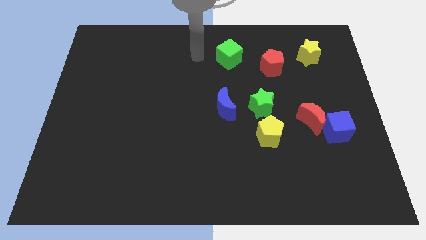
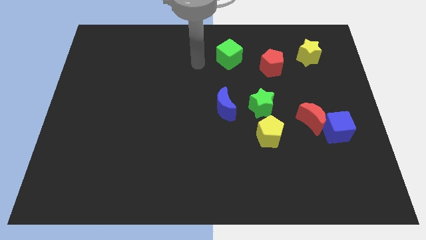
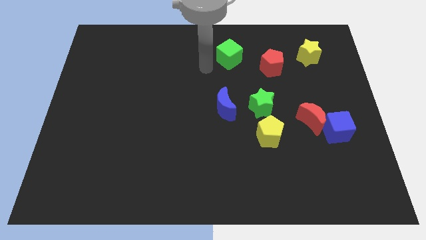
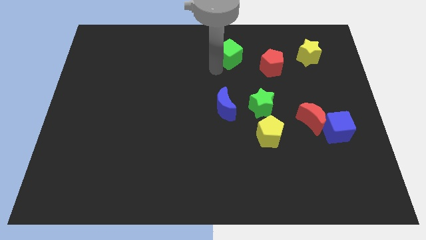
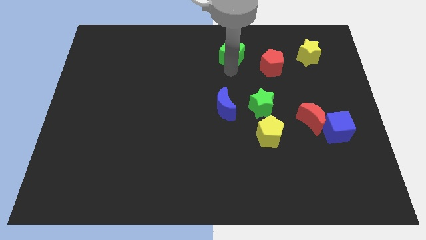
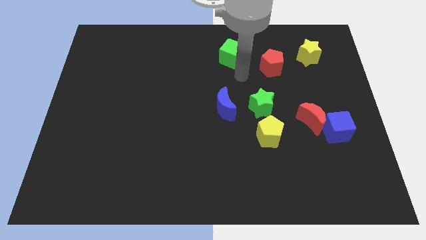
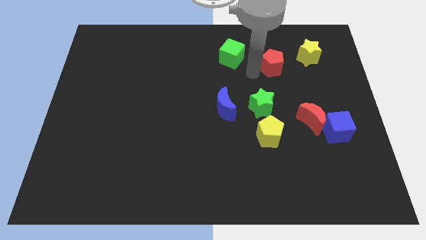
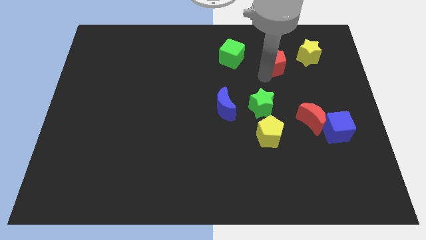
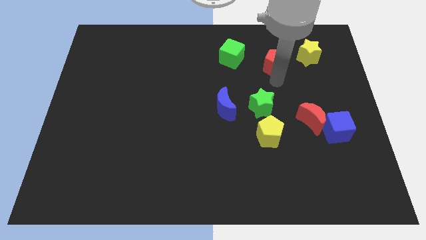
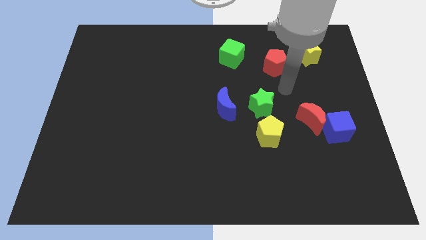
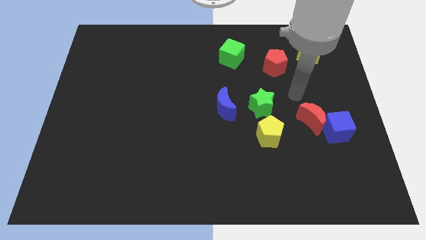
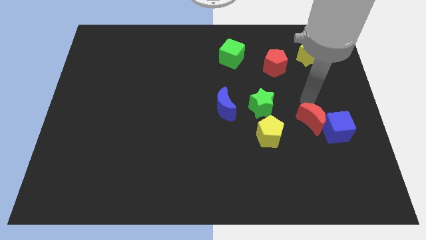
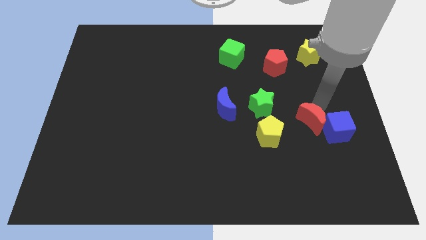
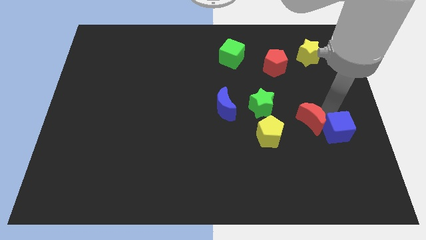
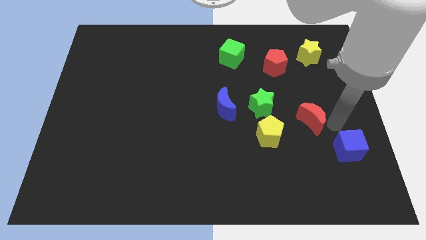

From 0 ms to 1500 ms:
separate the red moon from the blue cube

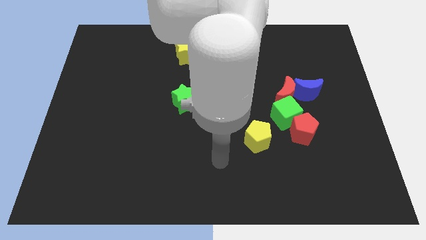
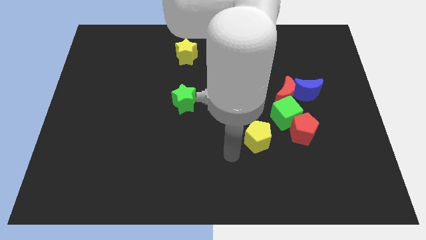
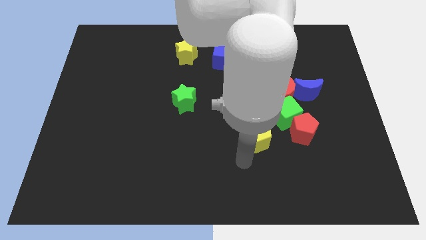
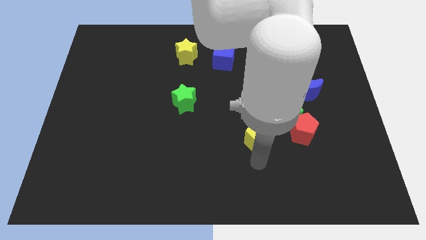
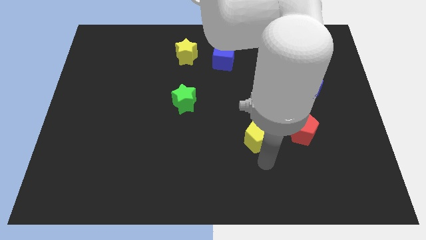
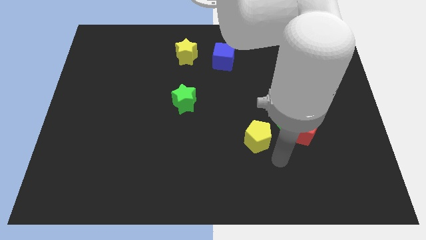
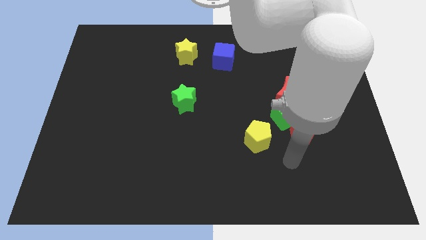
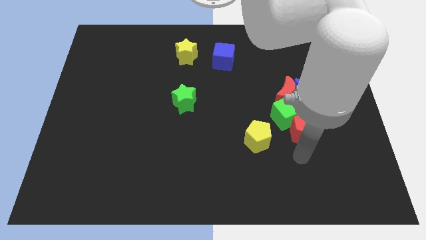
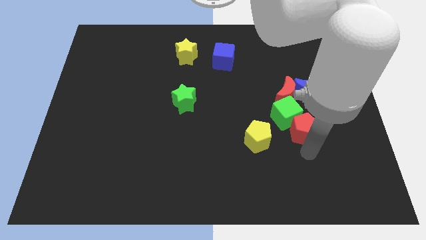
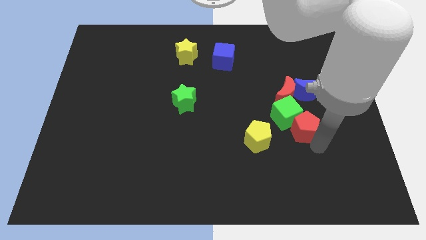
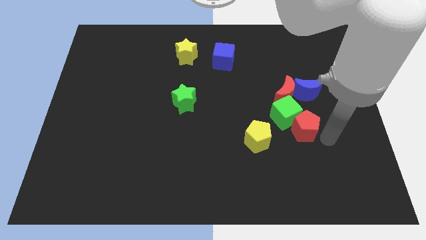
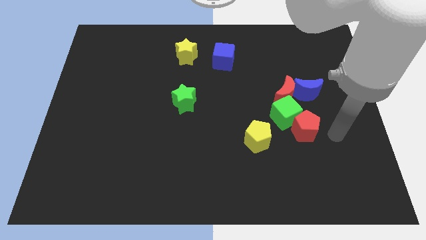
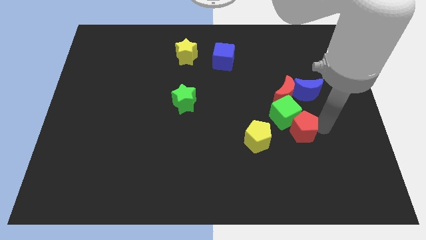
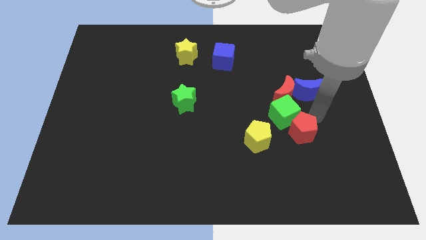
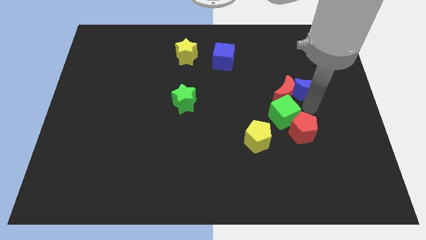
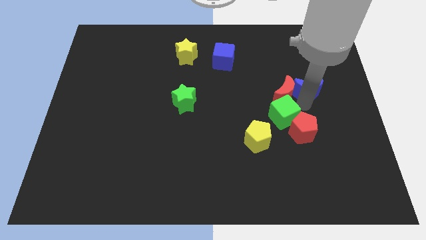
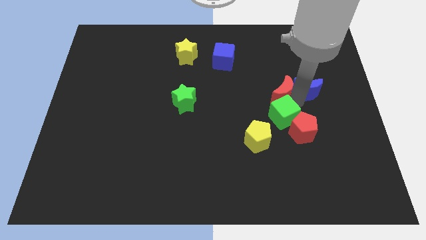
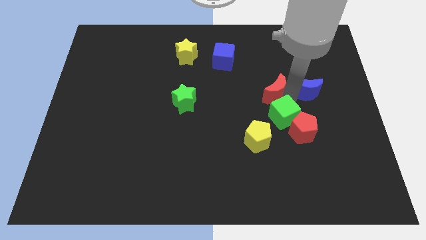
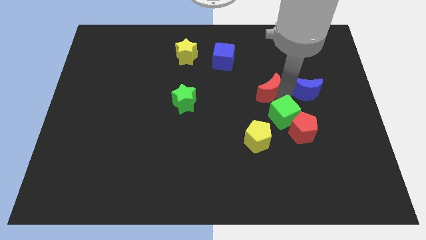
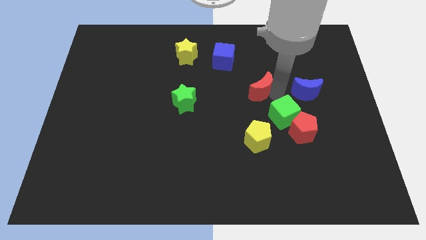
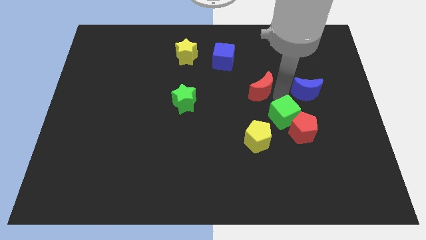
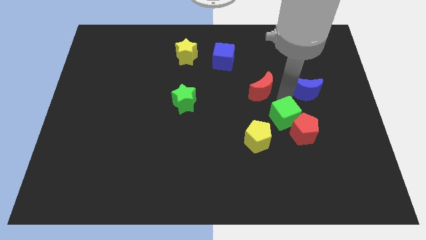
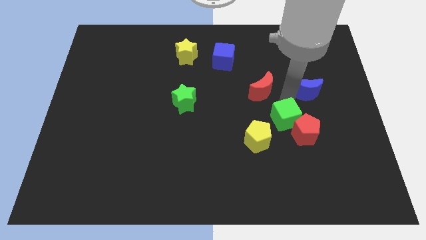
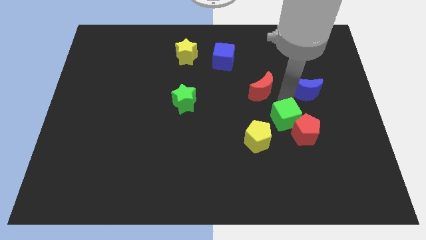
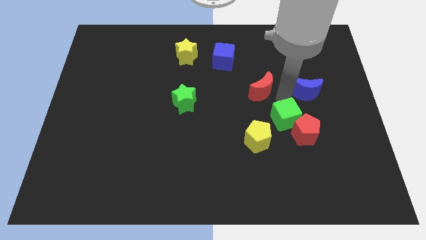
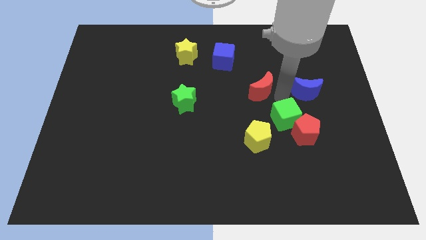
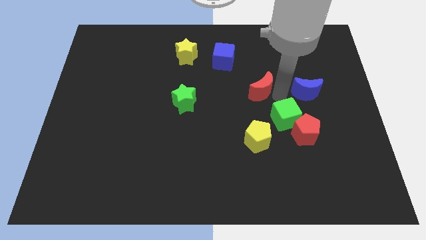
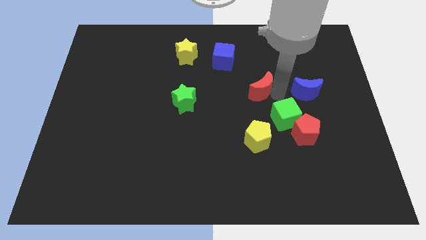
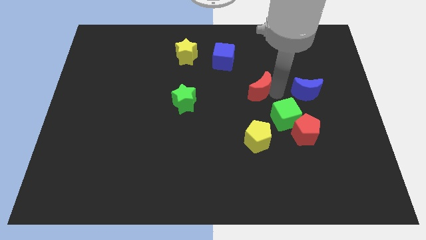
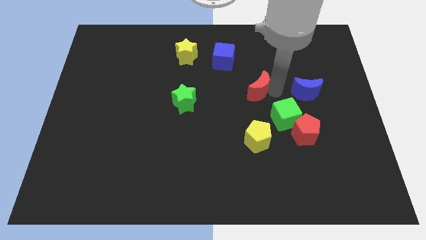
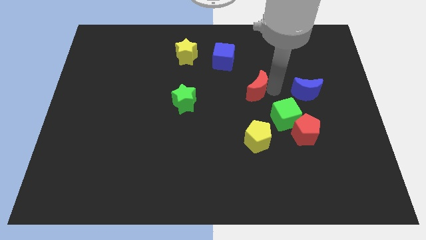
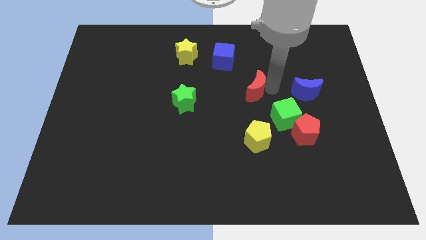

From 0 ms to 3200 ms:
separate the red moon from the blue moon and green cube

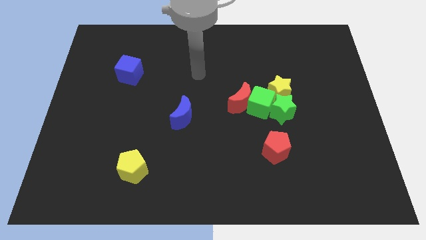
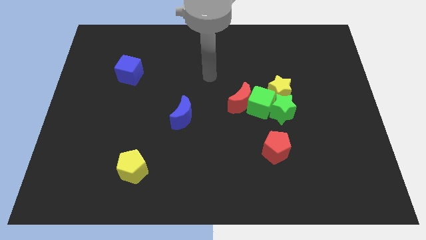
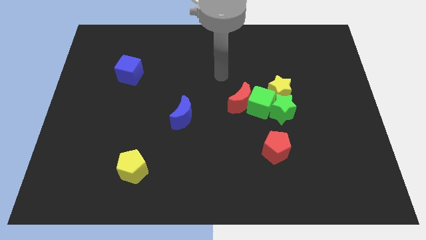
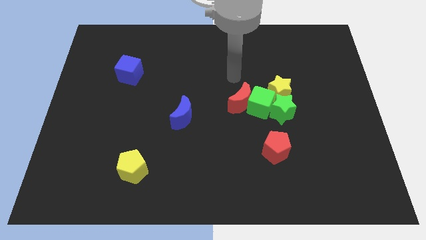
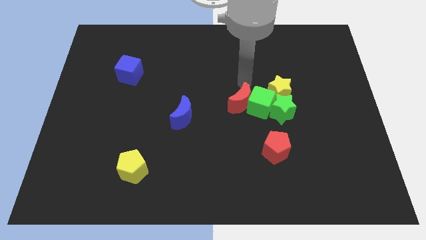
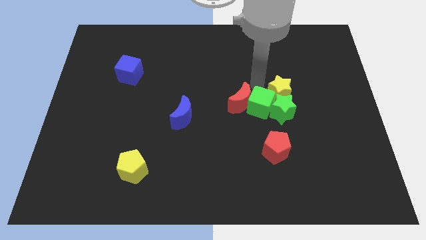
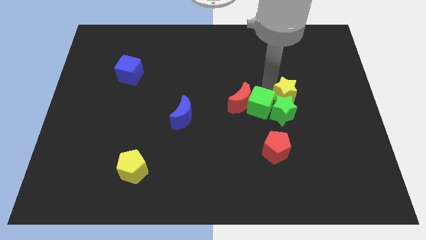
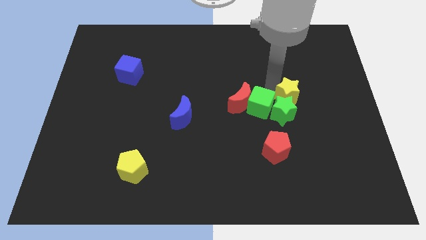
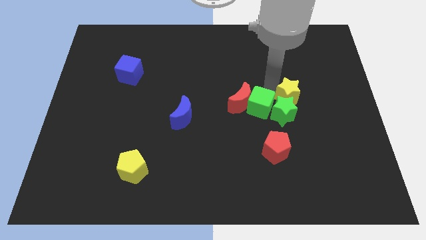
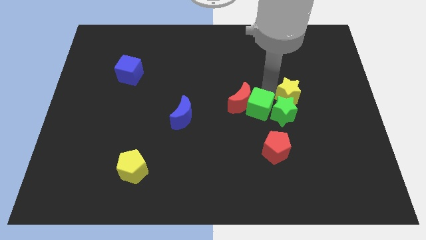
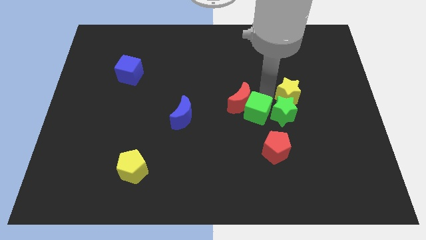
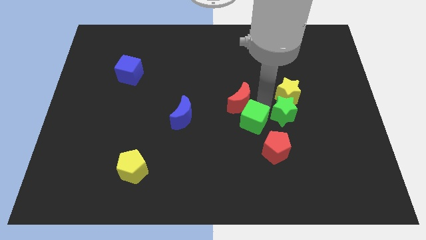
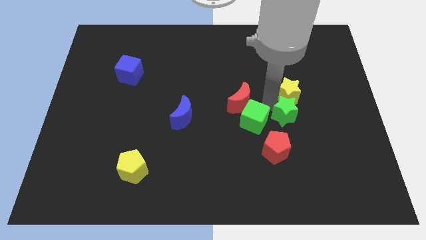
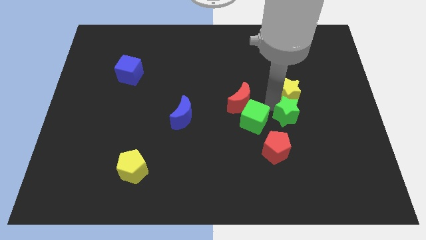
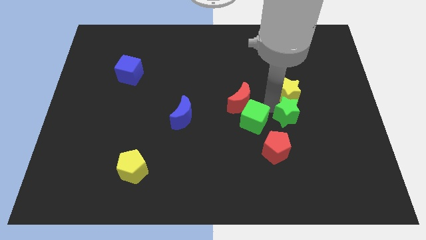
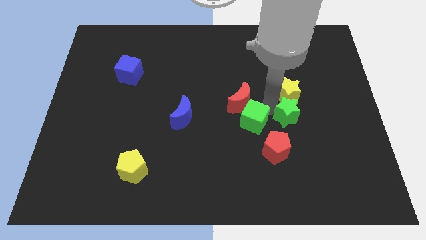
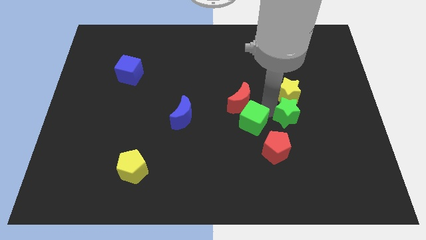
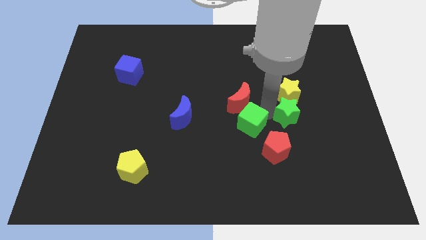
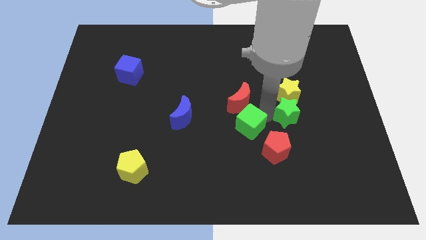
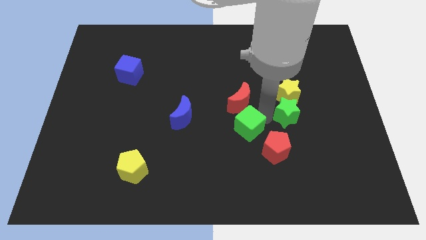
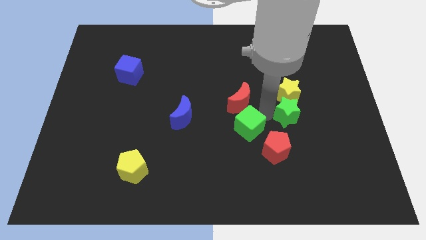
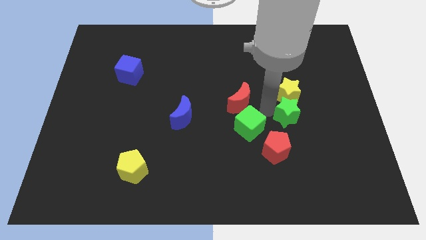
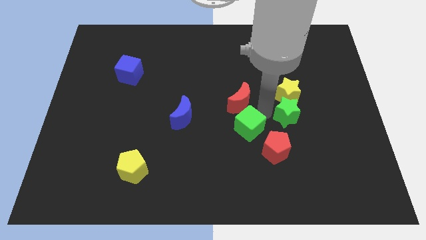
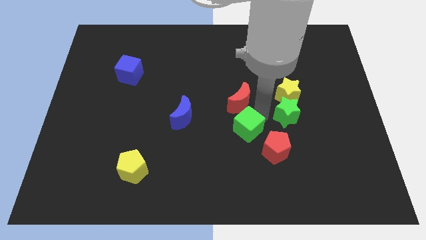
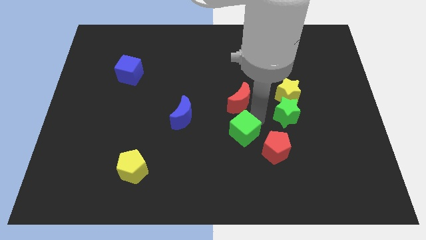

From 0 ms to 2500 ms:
move the green cube away from the red moon, green star, and yellow star

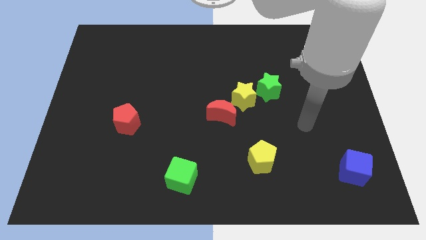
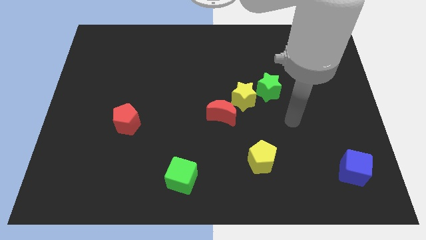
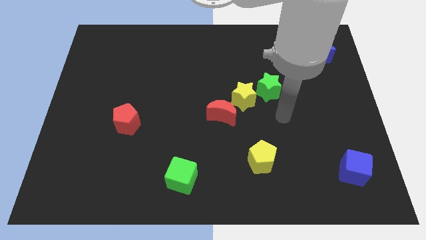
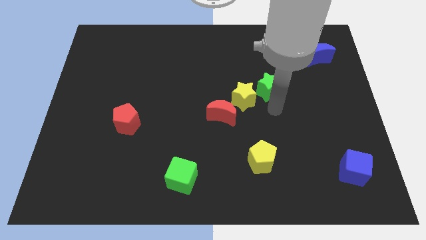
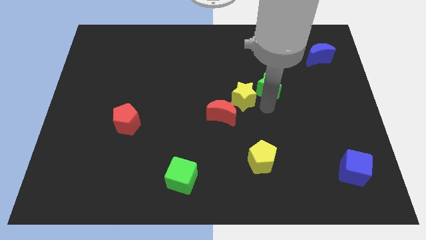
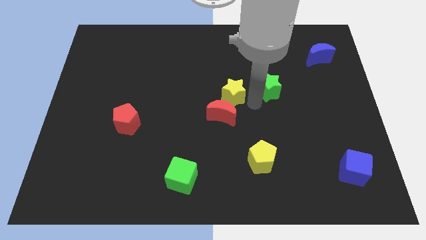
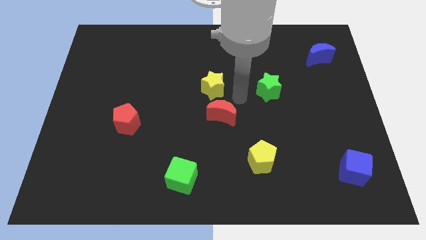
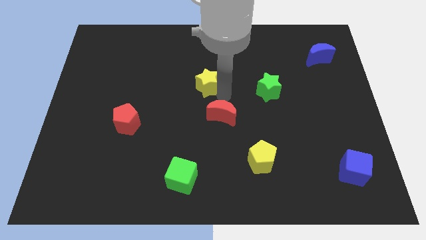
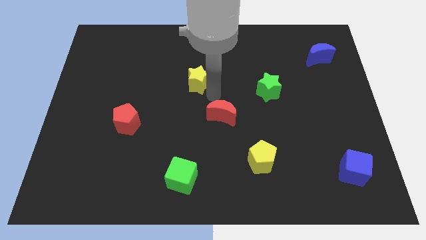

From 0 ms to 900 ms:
separate the red moon from the yellow star

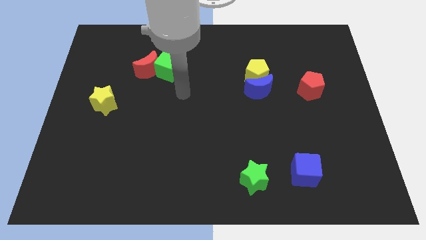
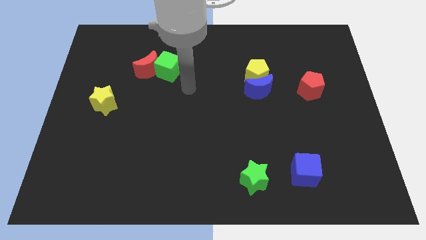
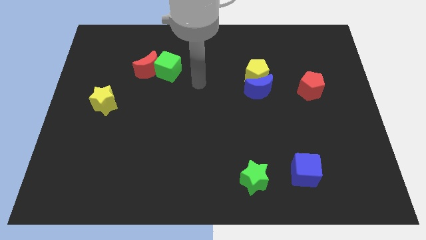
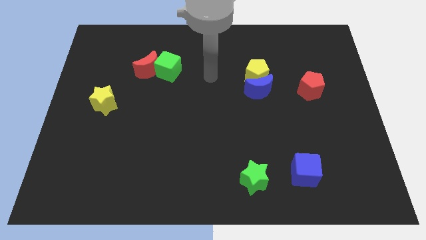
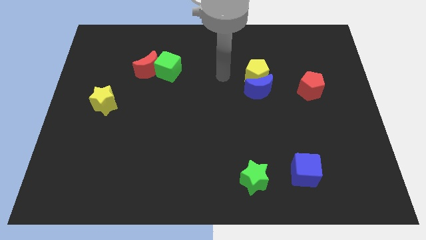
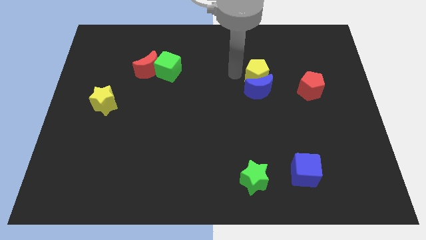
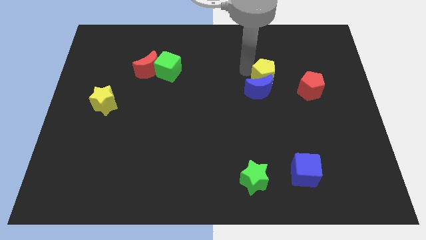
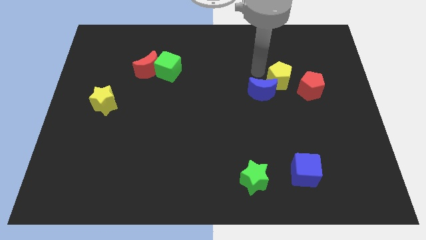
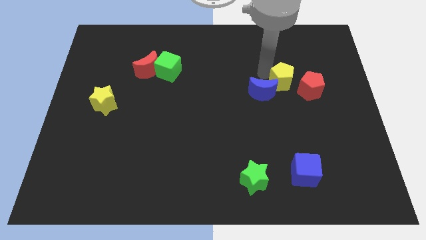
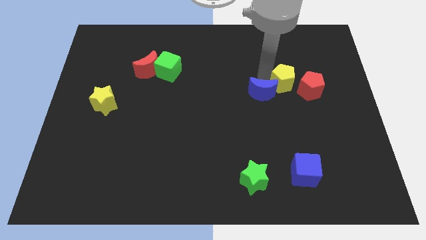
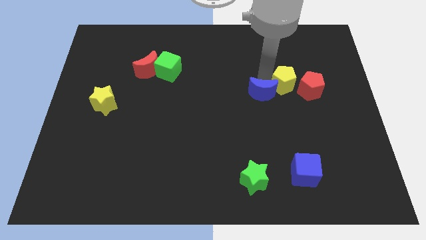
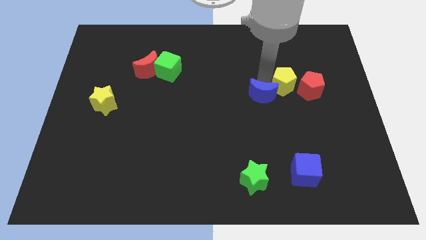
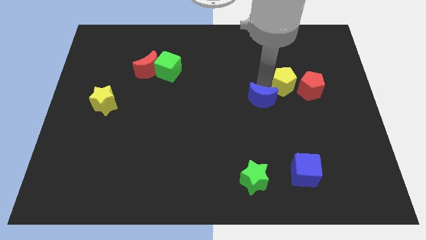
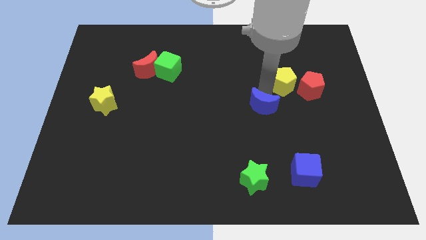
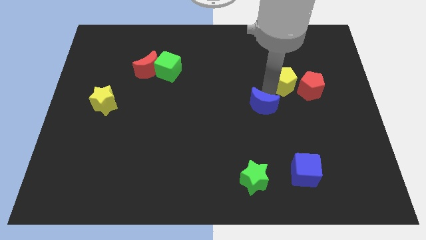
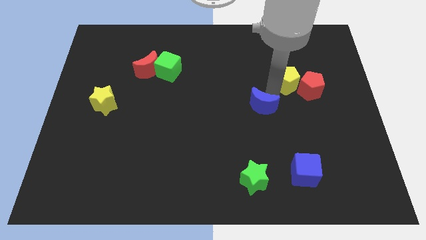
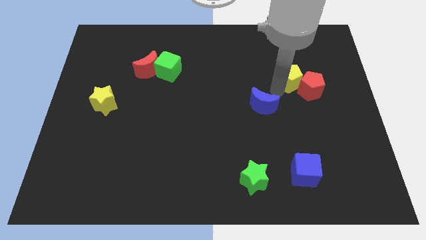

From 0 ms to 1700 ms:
pull the blue moon apart from the yellow pentagon
